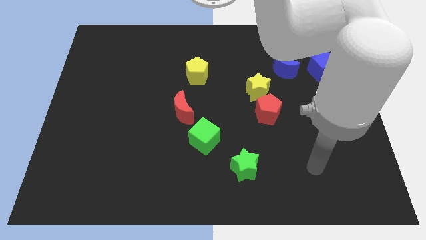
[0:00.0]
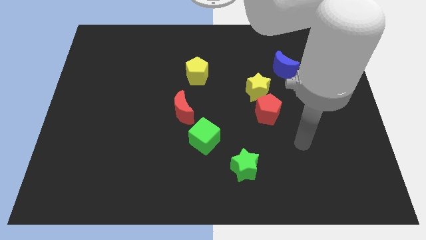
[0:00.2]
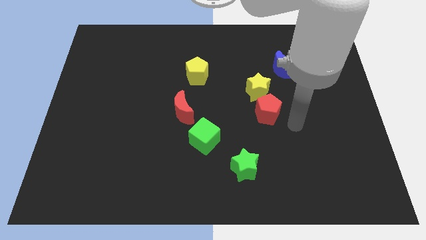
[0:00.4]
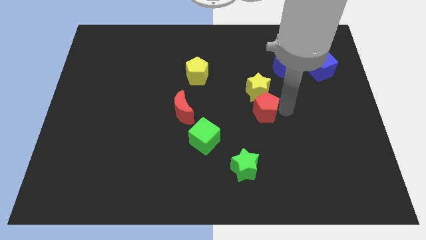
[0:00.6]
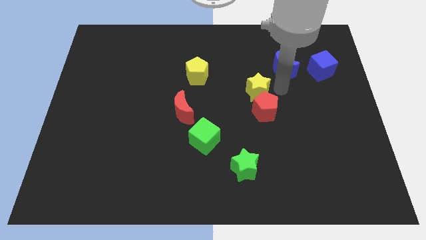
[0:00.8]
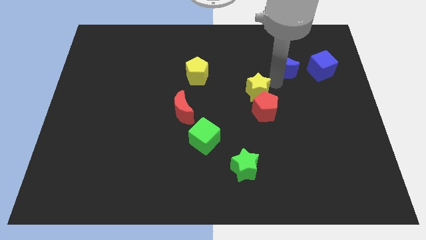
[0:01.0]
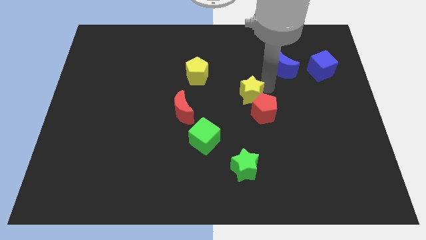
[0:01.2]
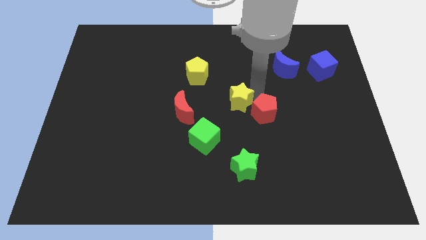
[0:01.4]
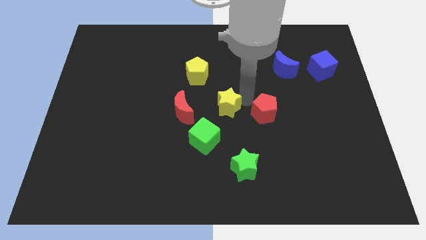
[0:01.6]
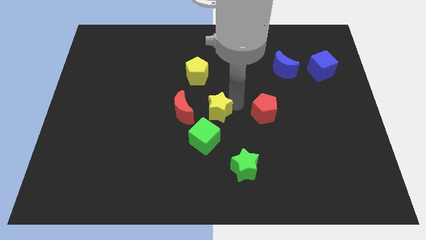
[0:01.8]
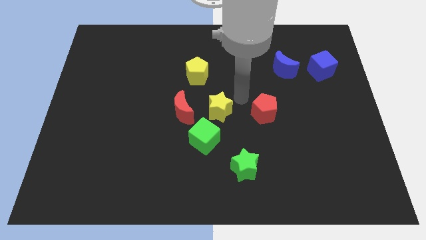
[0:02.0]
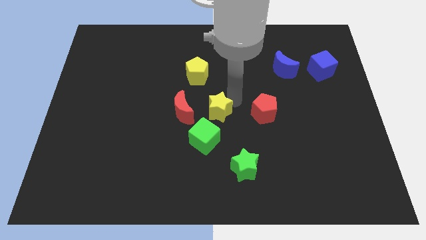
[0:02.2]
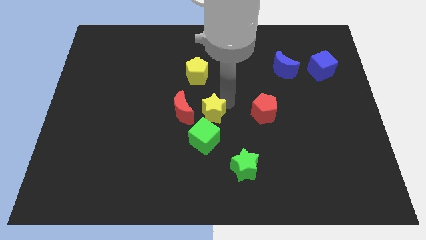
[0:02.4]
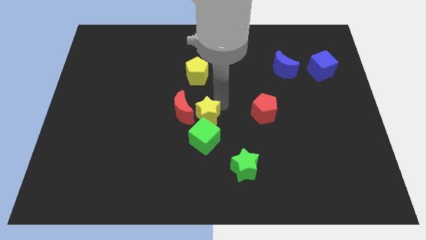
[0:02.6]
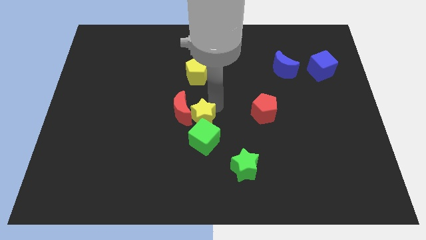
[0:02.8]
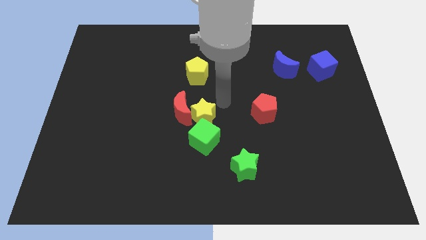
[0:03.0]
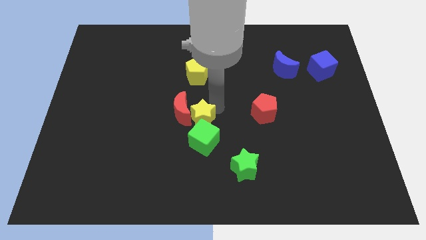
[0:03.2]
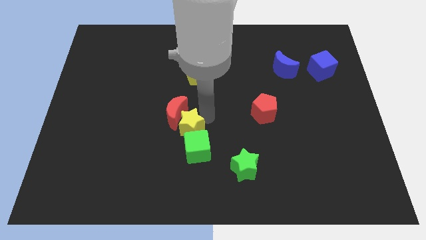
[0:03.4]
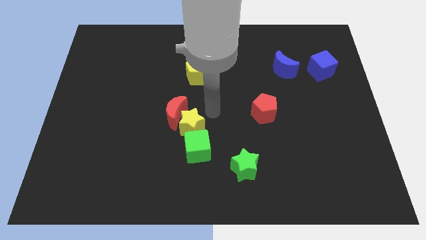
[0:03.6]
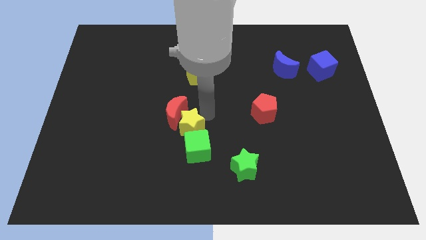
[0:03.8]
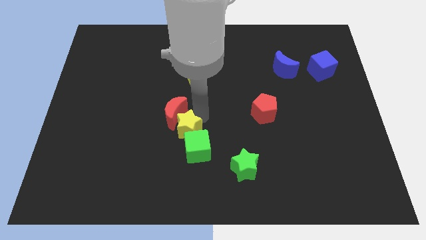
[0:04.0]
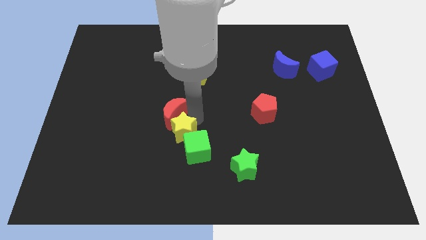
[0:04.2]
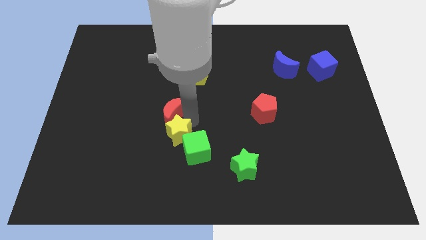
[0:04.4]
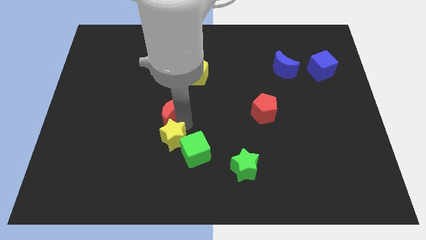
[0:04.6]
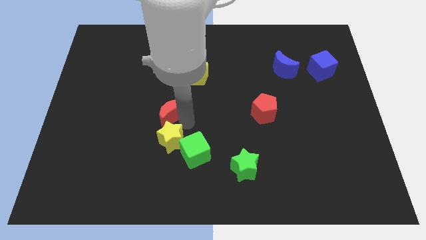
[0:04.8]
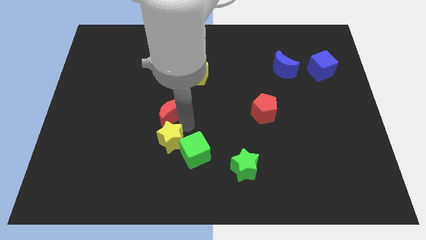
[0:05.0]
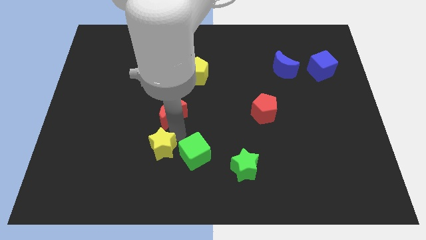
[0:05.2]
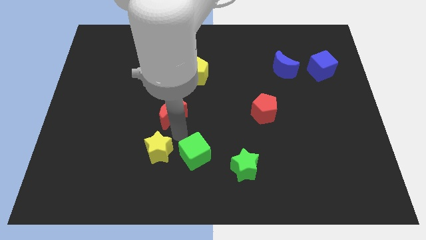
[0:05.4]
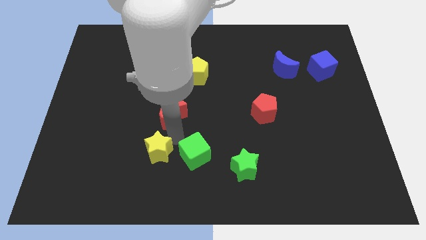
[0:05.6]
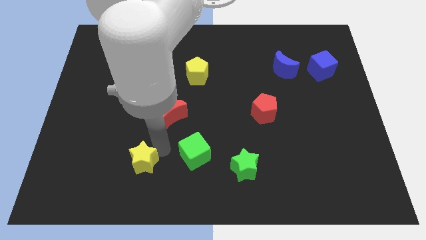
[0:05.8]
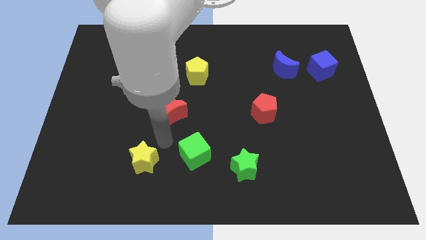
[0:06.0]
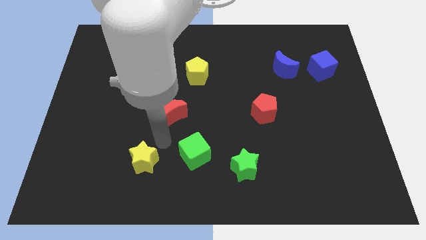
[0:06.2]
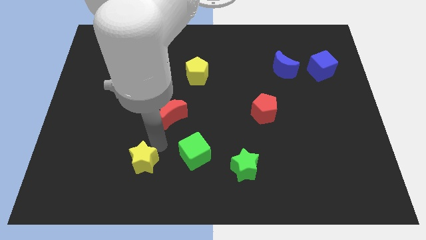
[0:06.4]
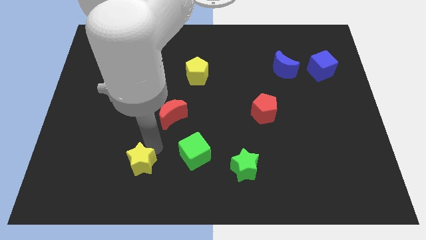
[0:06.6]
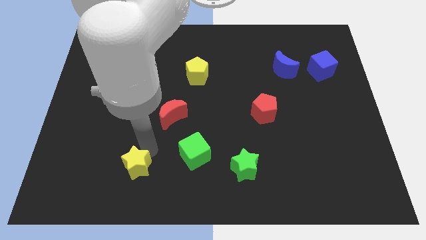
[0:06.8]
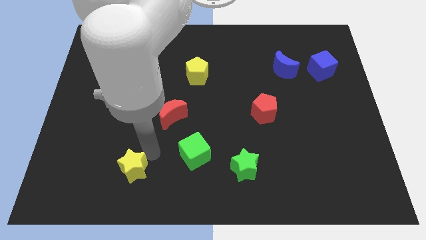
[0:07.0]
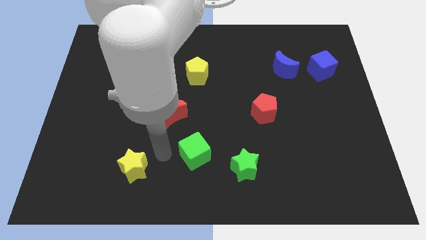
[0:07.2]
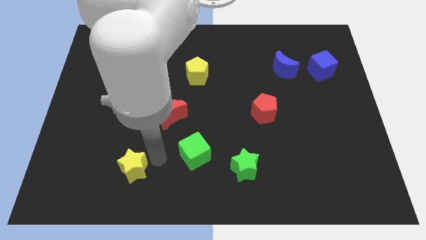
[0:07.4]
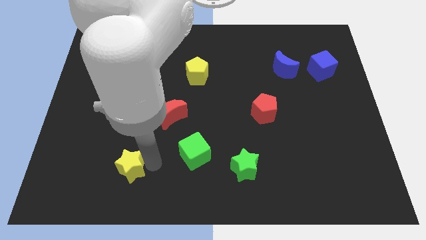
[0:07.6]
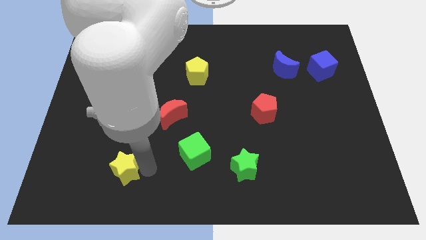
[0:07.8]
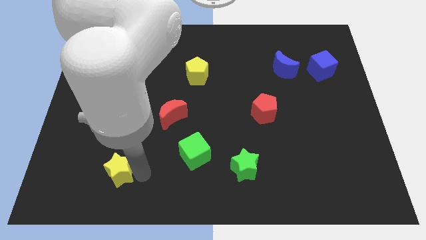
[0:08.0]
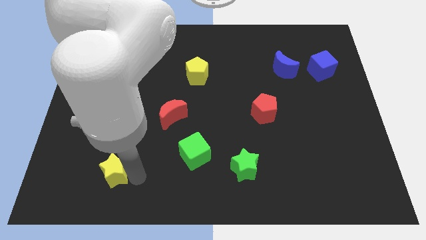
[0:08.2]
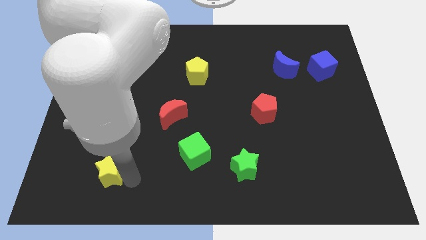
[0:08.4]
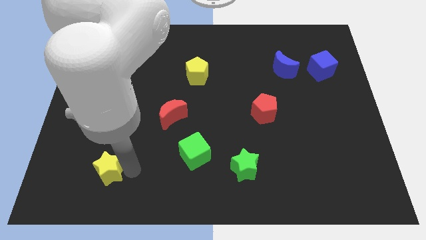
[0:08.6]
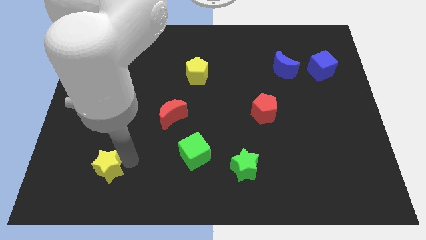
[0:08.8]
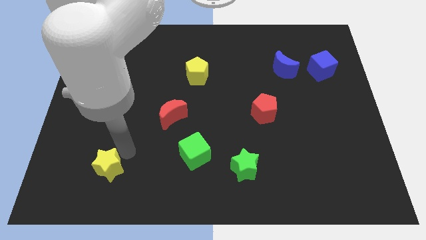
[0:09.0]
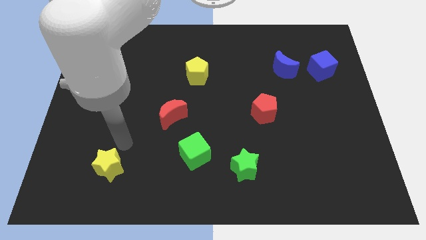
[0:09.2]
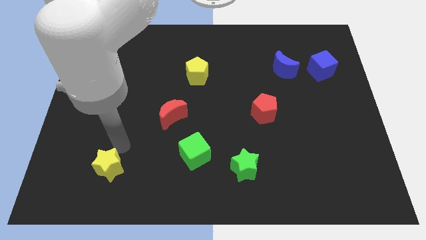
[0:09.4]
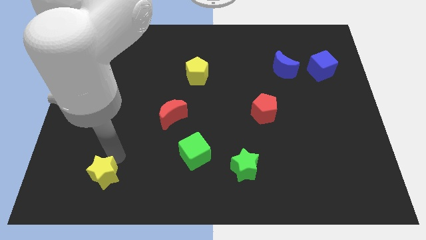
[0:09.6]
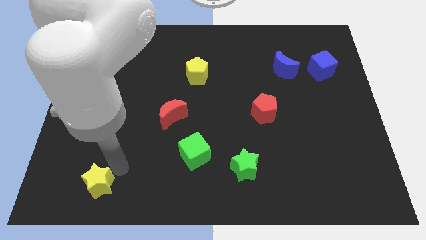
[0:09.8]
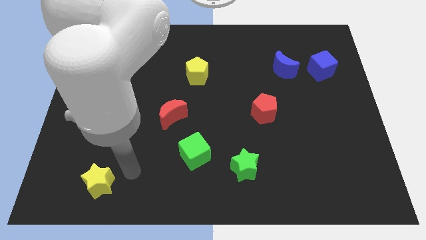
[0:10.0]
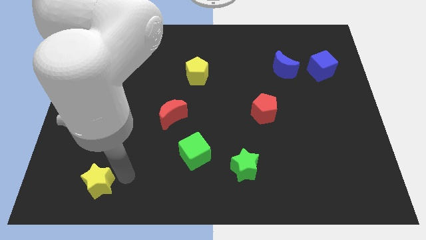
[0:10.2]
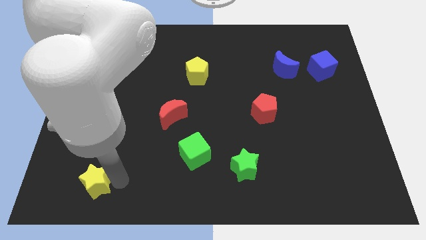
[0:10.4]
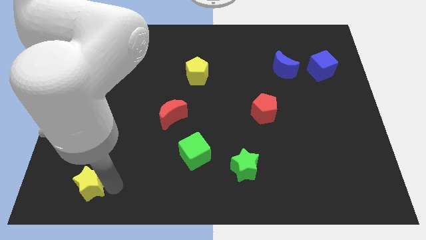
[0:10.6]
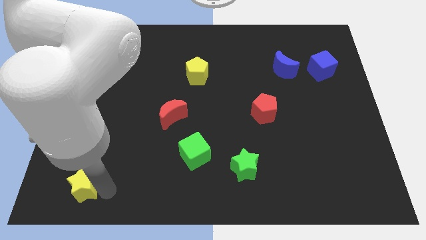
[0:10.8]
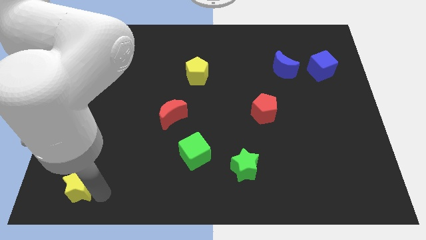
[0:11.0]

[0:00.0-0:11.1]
put the yellow star to the bottom left corner

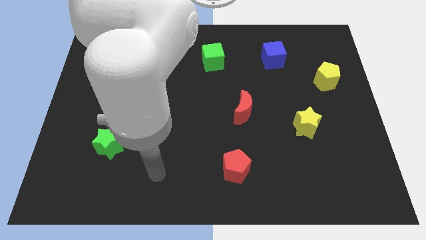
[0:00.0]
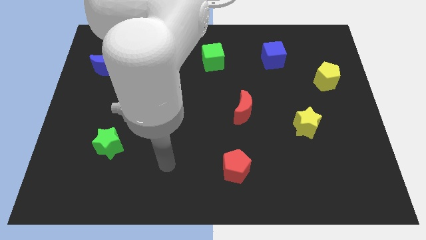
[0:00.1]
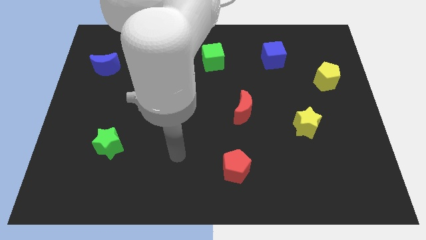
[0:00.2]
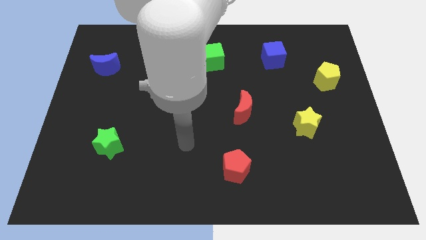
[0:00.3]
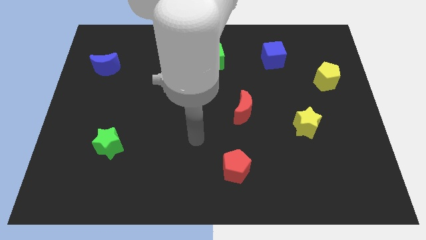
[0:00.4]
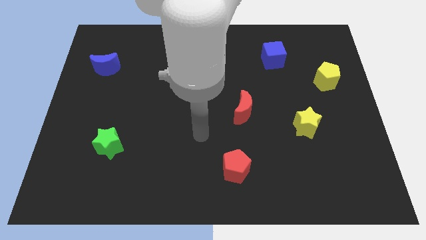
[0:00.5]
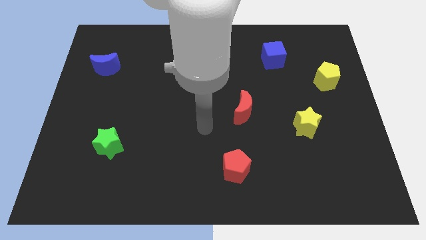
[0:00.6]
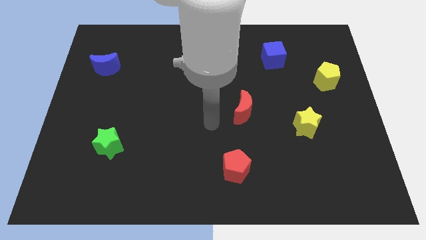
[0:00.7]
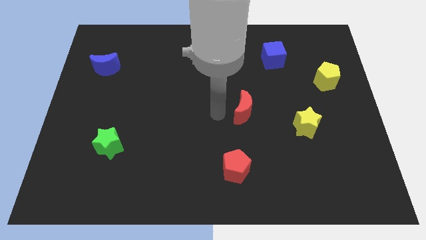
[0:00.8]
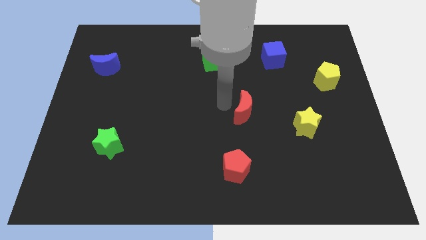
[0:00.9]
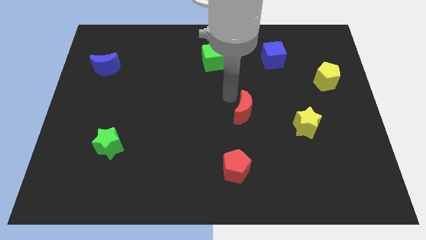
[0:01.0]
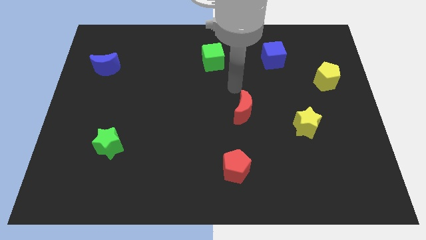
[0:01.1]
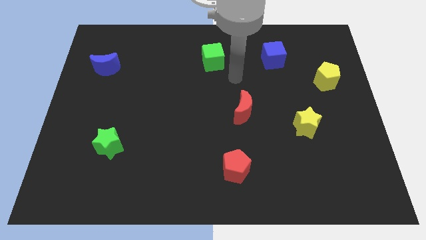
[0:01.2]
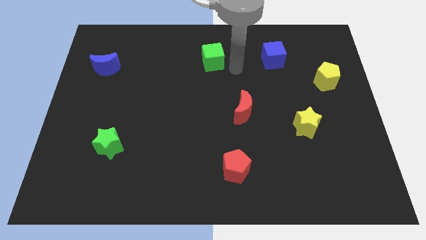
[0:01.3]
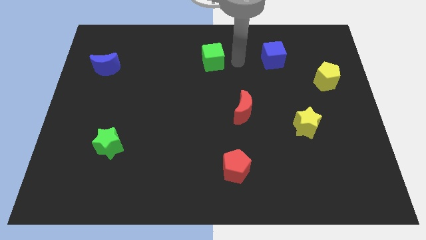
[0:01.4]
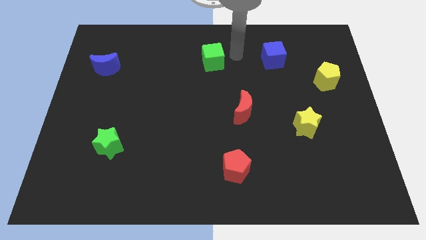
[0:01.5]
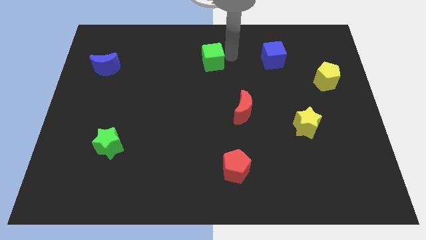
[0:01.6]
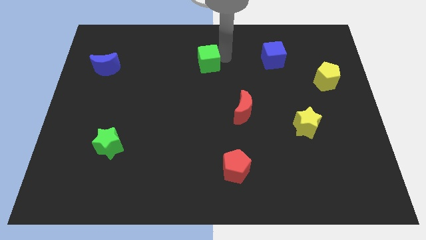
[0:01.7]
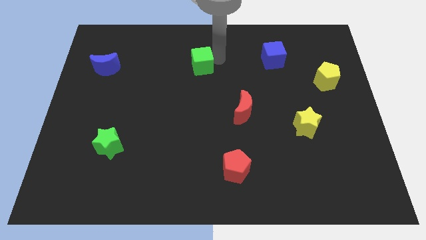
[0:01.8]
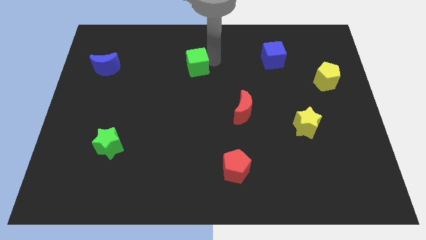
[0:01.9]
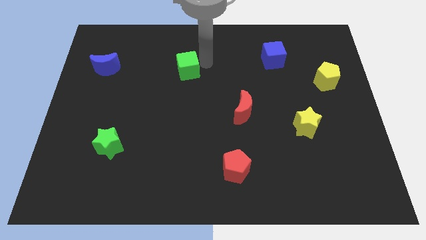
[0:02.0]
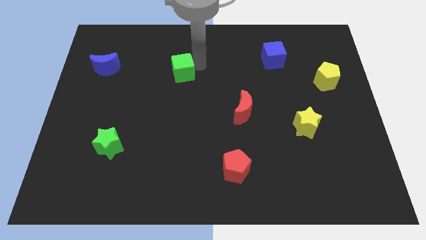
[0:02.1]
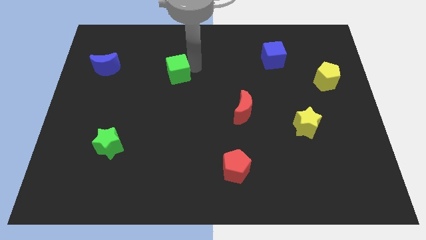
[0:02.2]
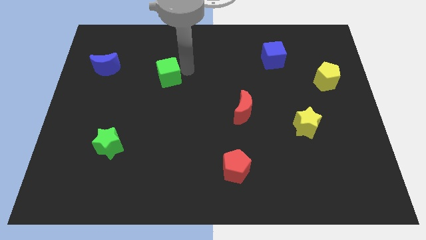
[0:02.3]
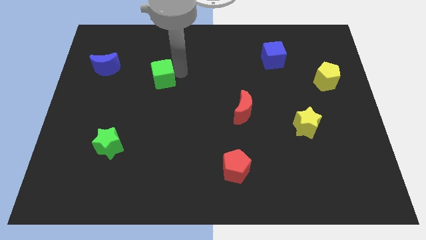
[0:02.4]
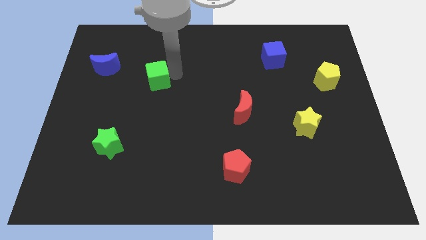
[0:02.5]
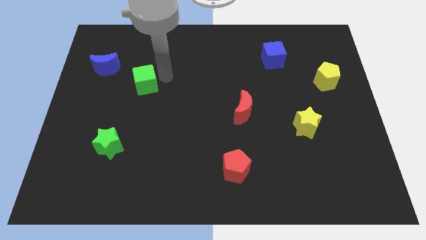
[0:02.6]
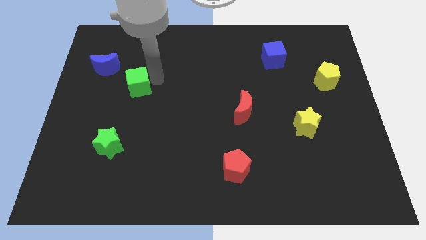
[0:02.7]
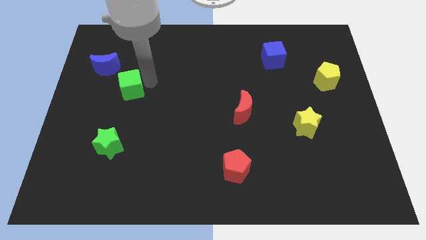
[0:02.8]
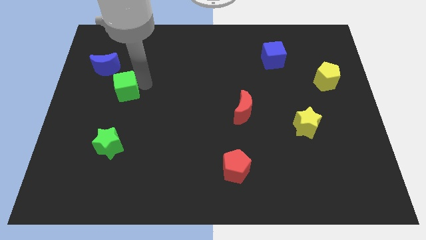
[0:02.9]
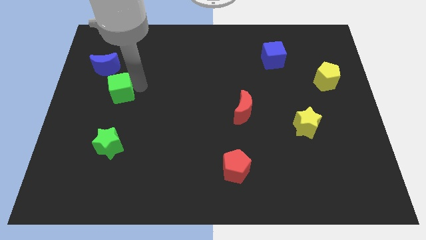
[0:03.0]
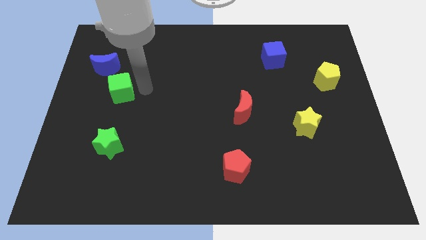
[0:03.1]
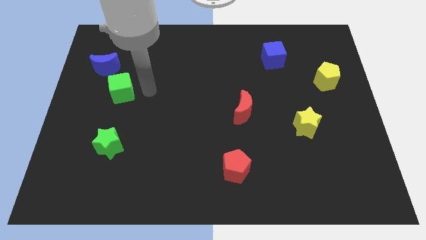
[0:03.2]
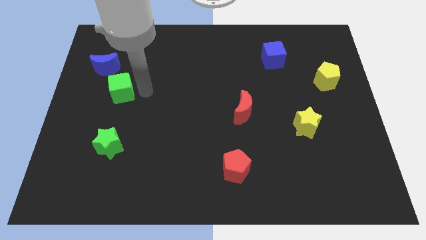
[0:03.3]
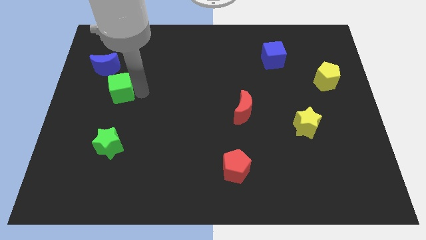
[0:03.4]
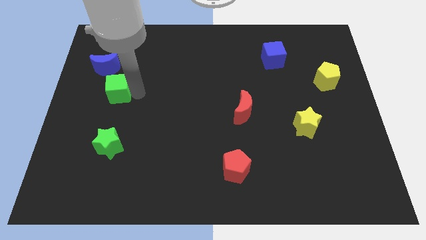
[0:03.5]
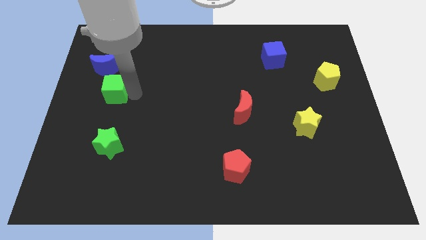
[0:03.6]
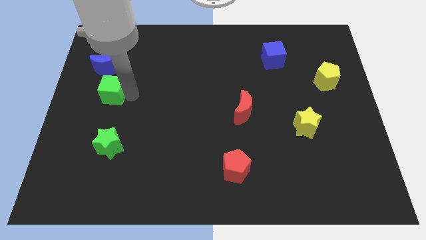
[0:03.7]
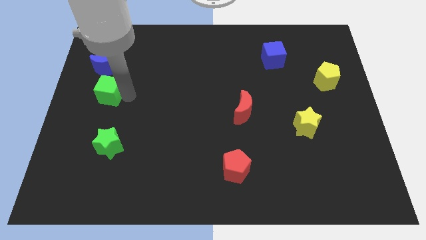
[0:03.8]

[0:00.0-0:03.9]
move the green cube to the left side
